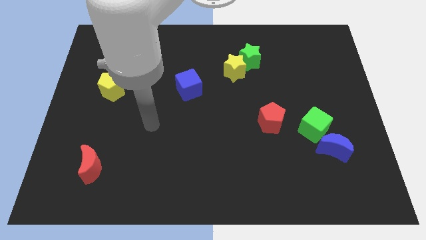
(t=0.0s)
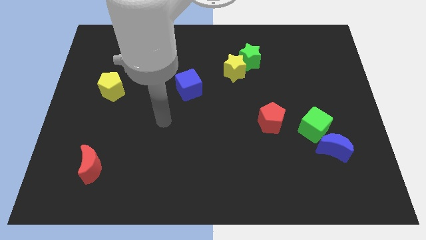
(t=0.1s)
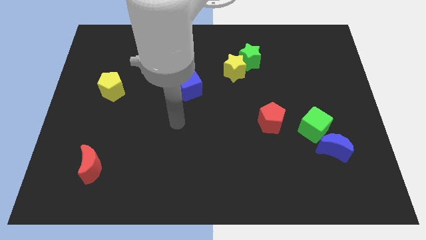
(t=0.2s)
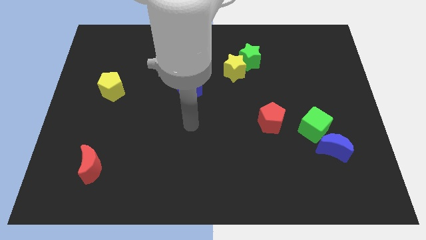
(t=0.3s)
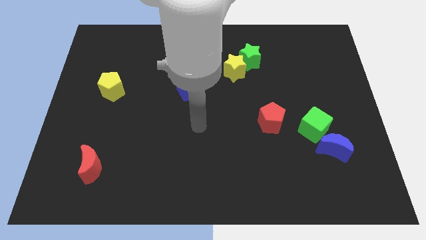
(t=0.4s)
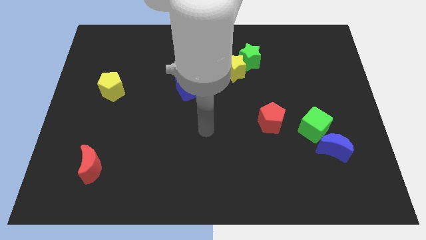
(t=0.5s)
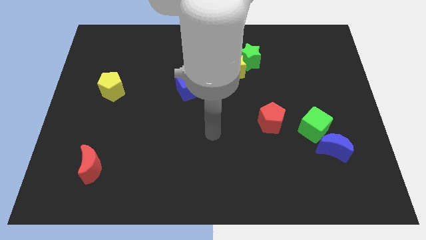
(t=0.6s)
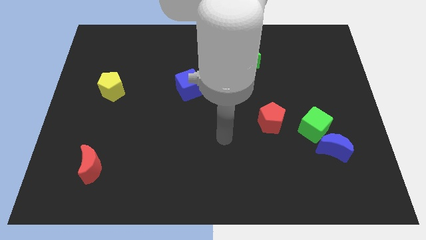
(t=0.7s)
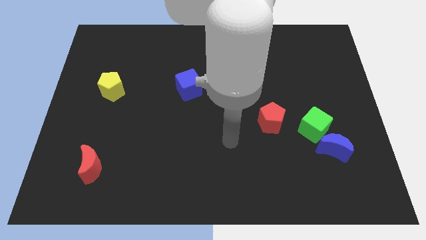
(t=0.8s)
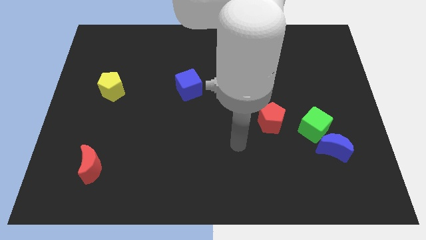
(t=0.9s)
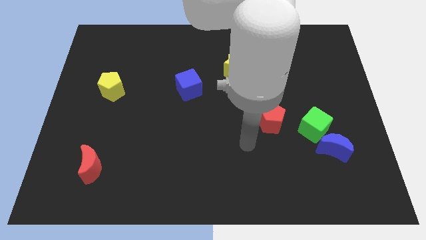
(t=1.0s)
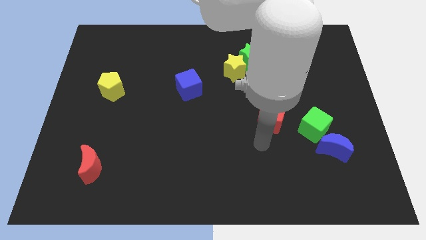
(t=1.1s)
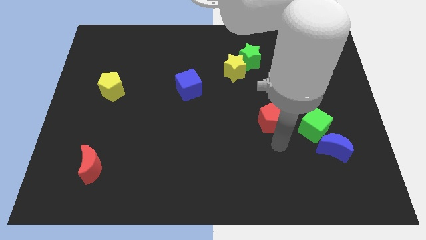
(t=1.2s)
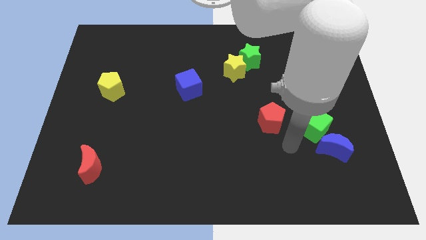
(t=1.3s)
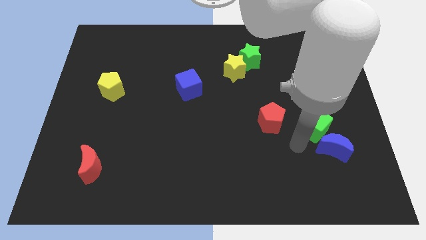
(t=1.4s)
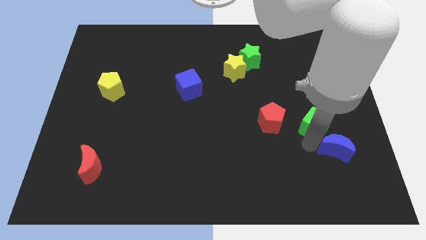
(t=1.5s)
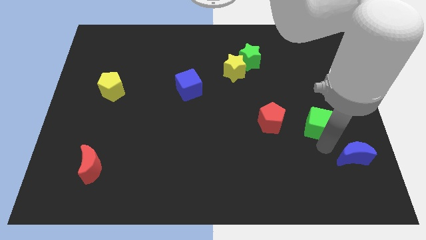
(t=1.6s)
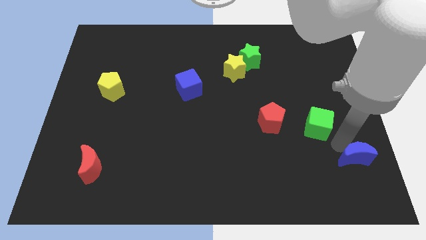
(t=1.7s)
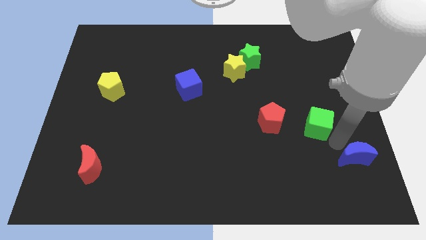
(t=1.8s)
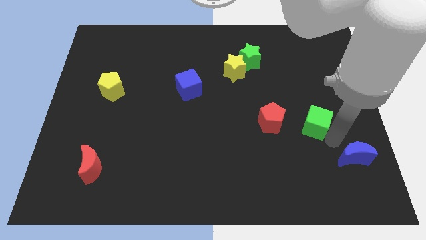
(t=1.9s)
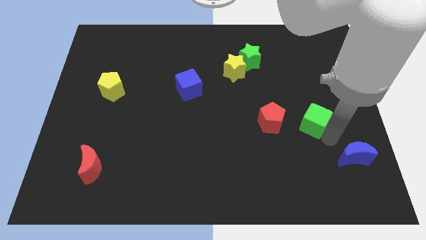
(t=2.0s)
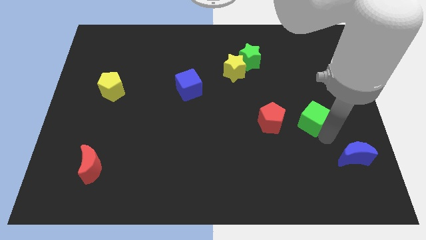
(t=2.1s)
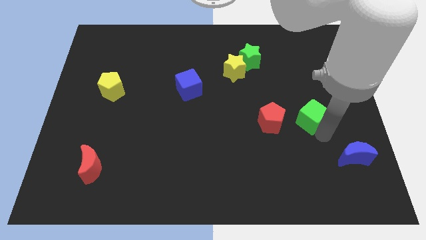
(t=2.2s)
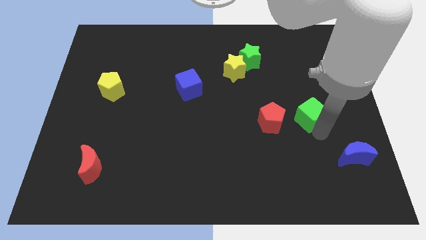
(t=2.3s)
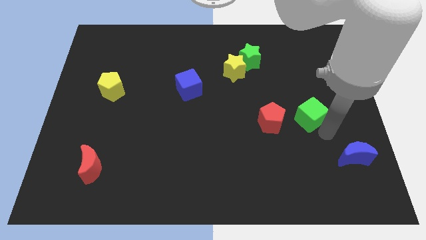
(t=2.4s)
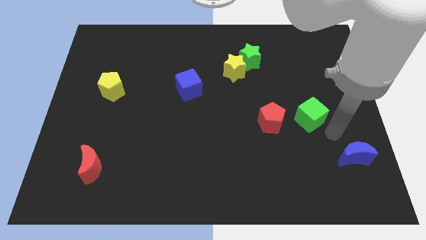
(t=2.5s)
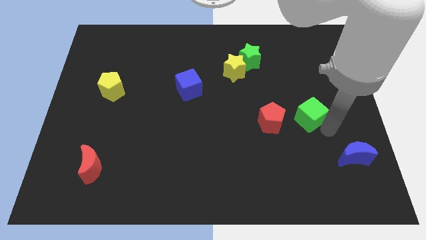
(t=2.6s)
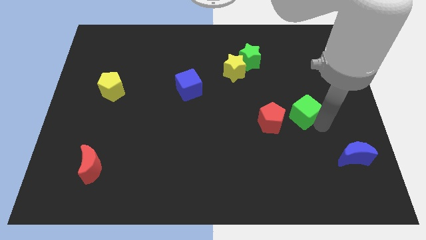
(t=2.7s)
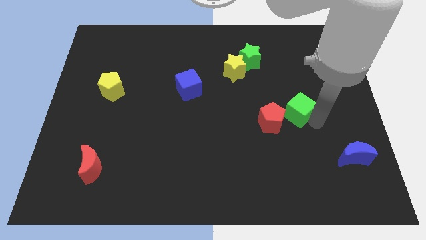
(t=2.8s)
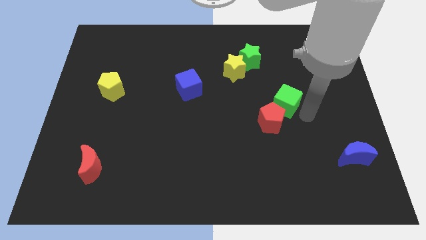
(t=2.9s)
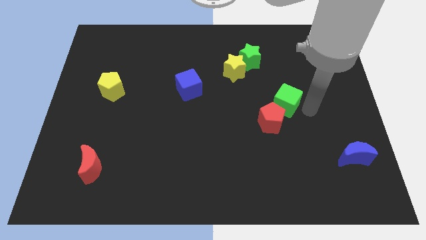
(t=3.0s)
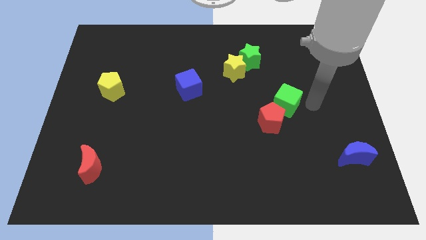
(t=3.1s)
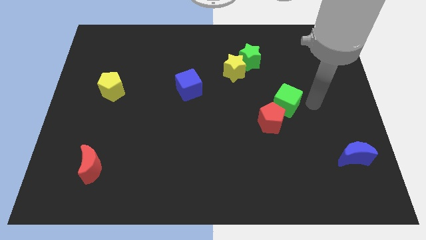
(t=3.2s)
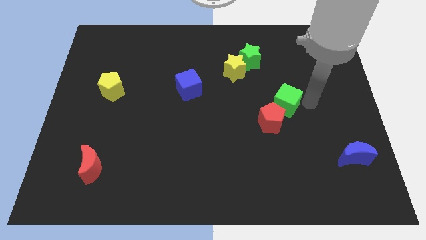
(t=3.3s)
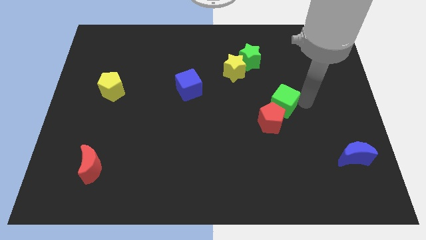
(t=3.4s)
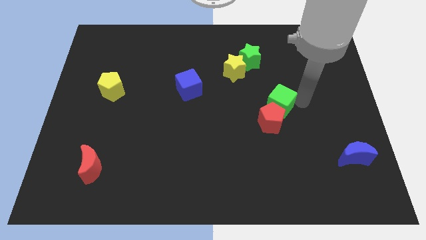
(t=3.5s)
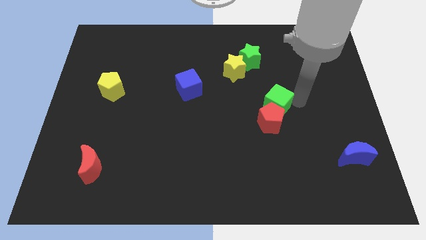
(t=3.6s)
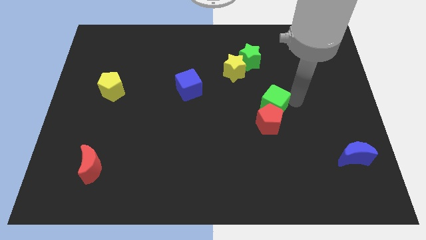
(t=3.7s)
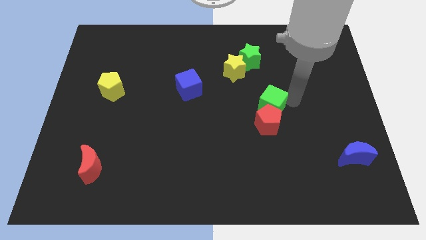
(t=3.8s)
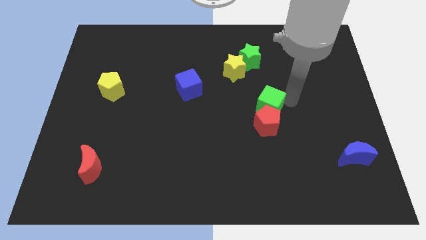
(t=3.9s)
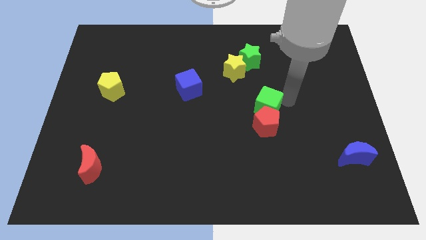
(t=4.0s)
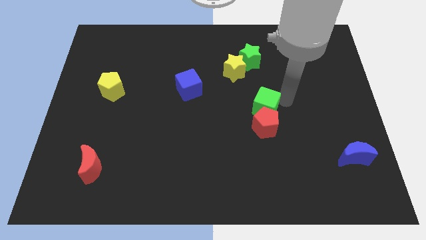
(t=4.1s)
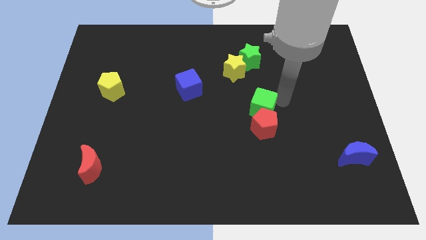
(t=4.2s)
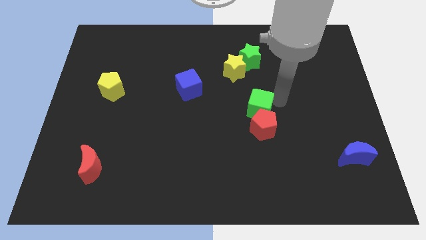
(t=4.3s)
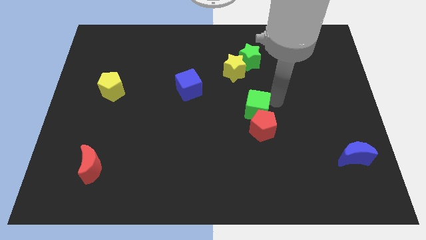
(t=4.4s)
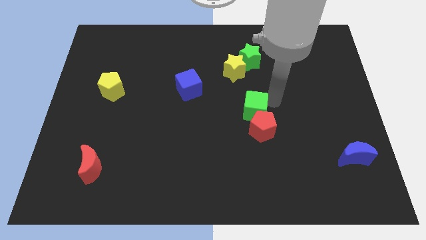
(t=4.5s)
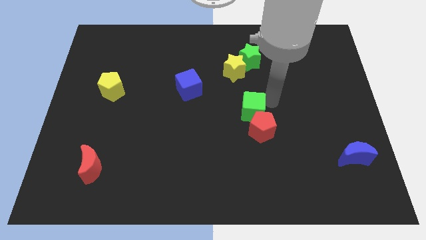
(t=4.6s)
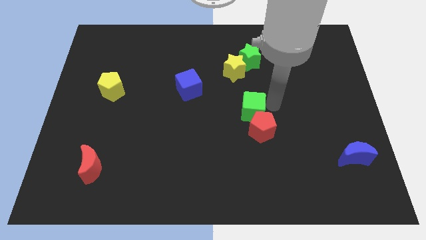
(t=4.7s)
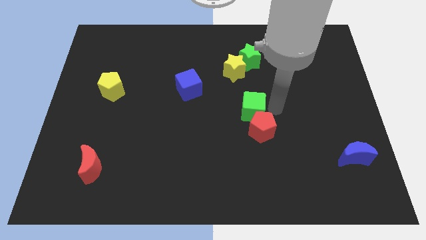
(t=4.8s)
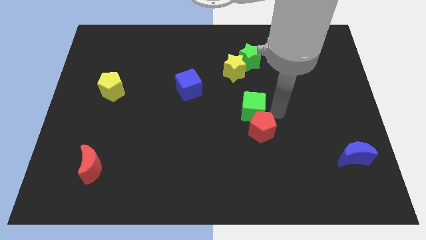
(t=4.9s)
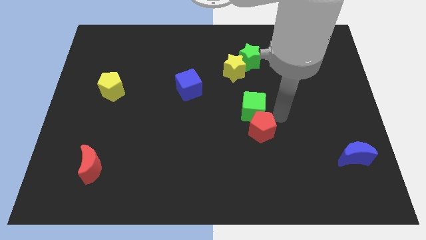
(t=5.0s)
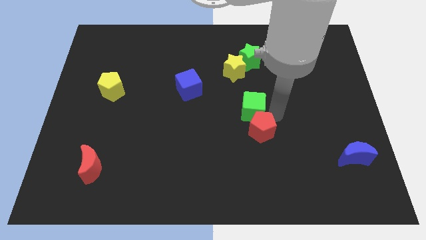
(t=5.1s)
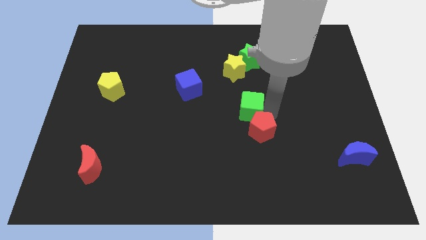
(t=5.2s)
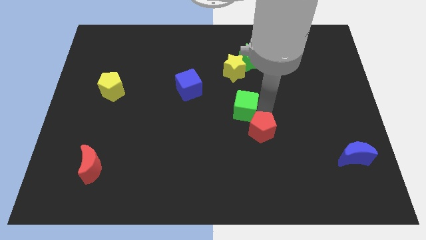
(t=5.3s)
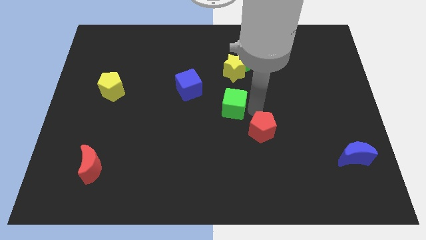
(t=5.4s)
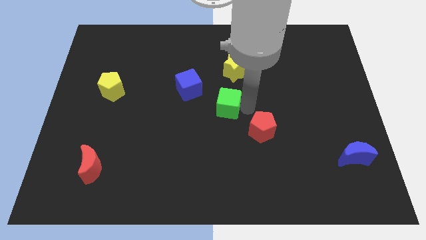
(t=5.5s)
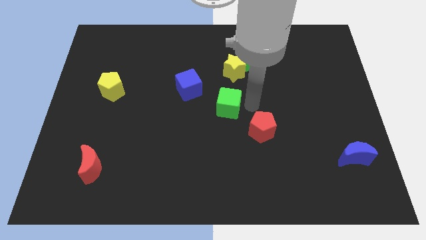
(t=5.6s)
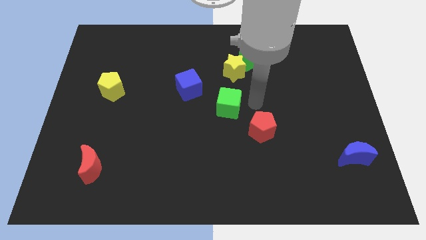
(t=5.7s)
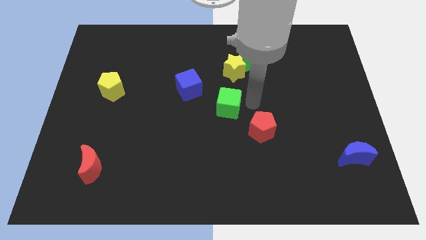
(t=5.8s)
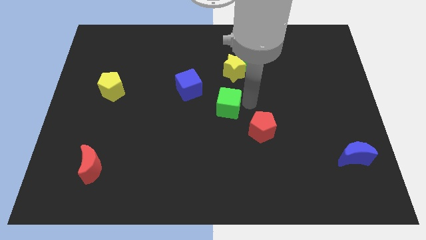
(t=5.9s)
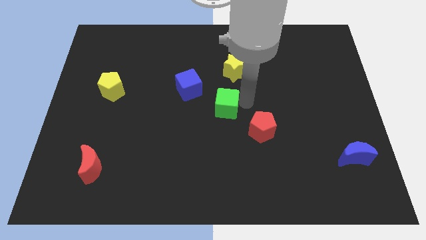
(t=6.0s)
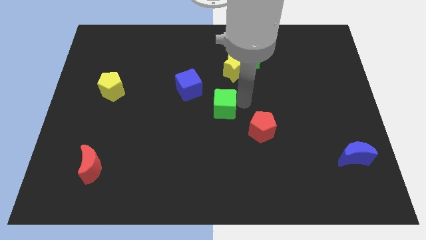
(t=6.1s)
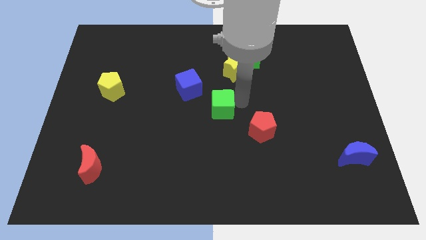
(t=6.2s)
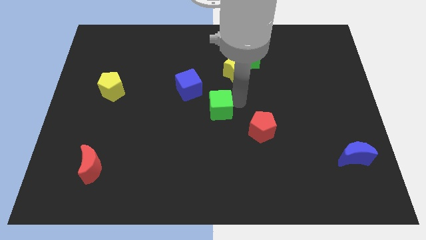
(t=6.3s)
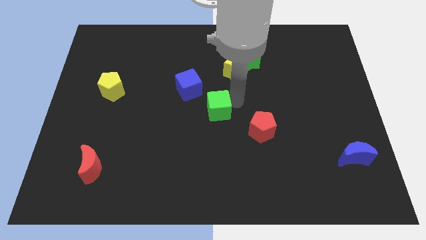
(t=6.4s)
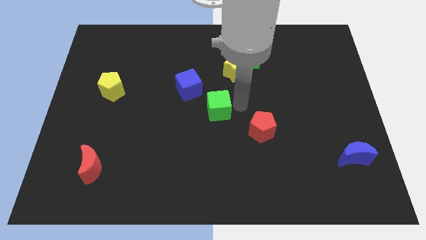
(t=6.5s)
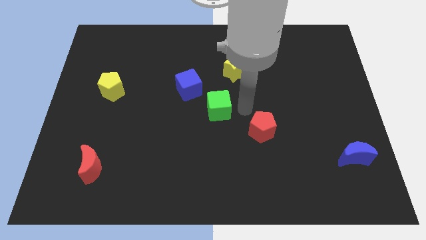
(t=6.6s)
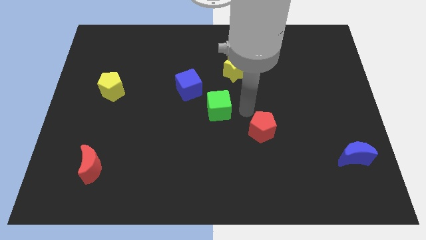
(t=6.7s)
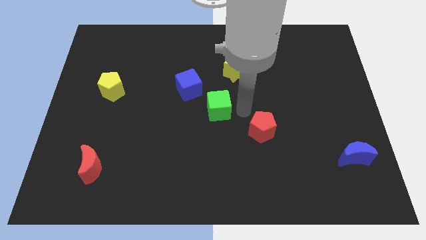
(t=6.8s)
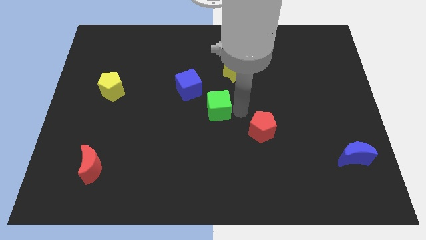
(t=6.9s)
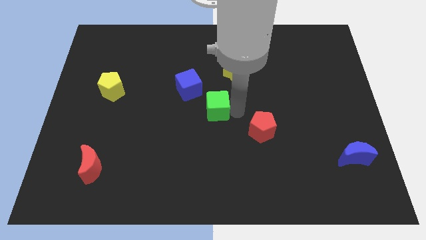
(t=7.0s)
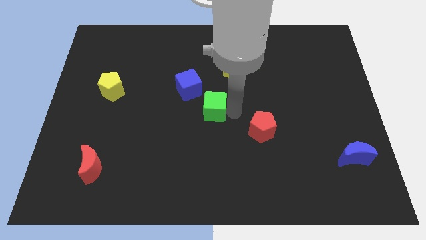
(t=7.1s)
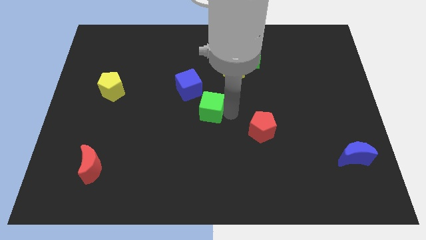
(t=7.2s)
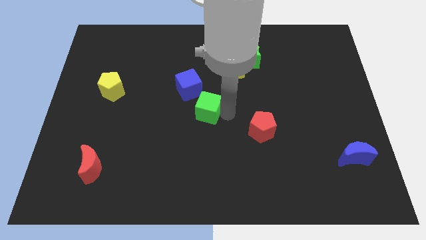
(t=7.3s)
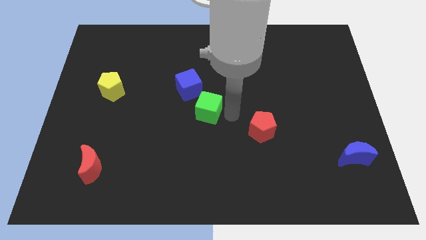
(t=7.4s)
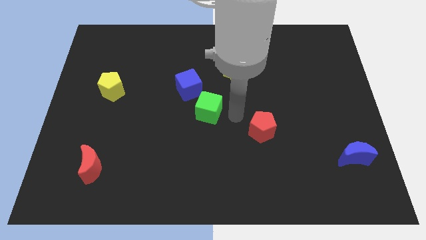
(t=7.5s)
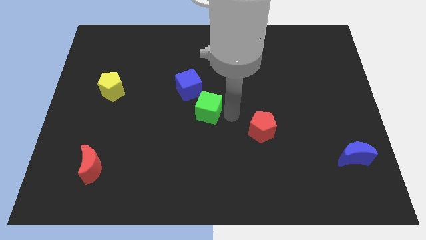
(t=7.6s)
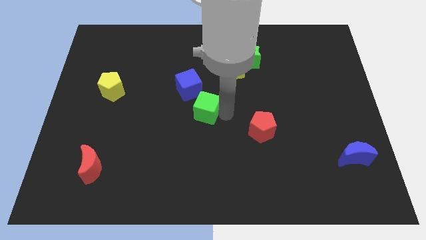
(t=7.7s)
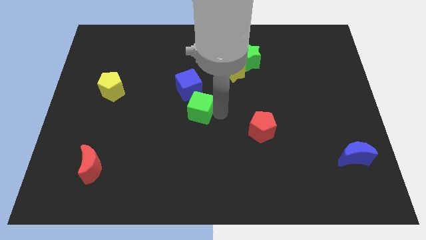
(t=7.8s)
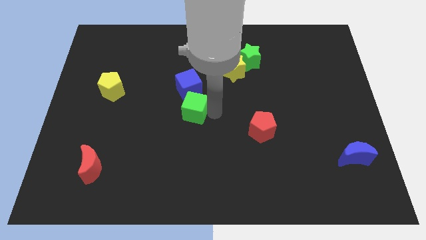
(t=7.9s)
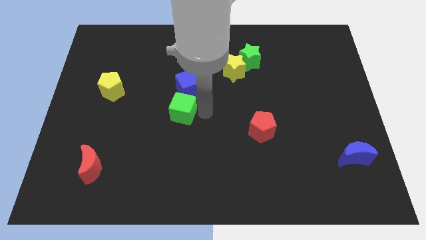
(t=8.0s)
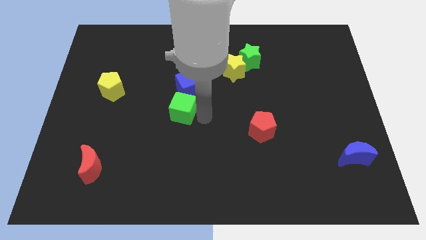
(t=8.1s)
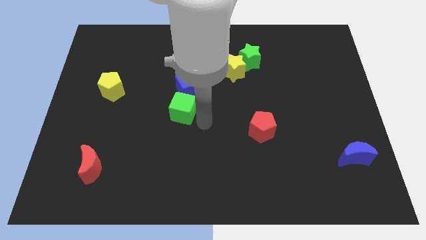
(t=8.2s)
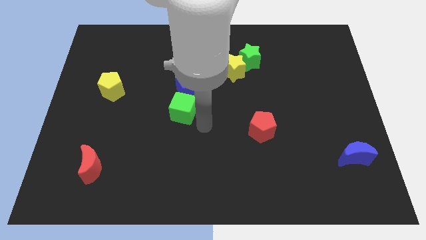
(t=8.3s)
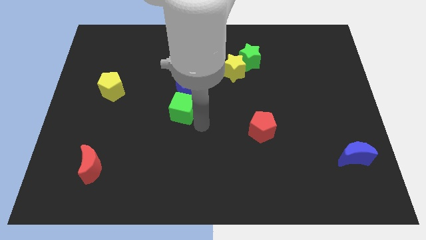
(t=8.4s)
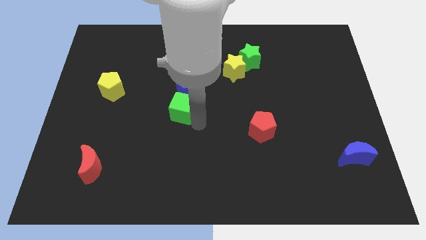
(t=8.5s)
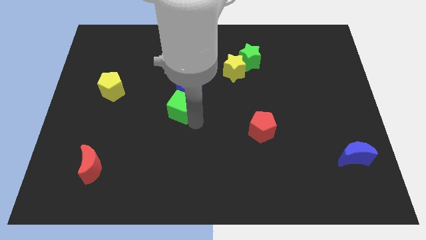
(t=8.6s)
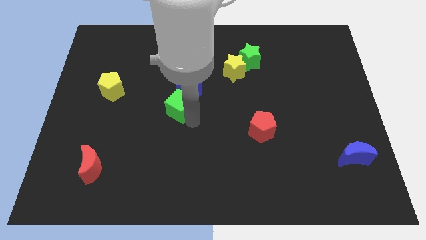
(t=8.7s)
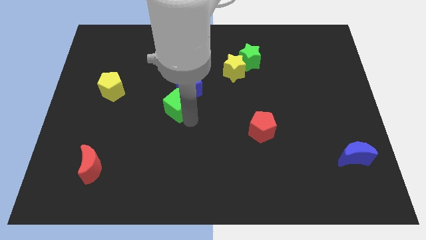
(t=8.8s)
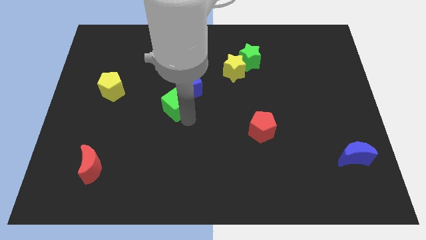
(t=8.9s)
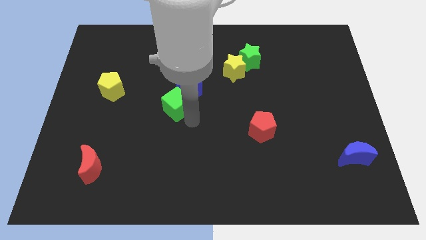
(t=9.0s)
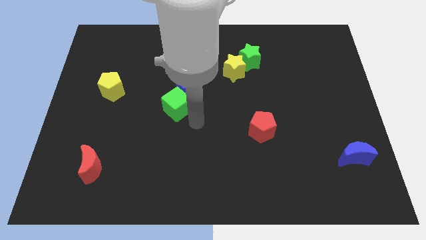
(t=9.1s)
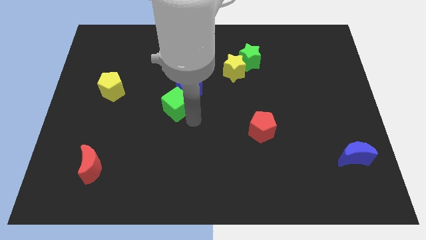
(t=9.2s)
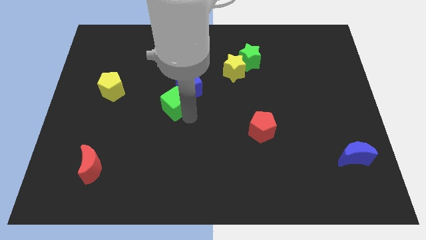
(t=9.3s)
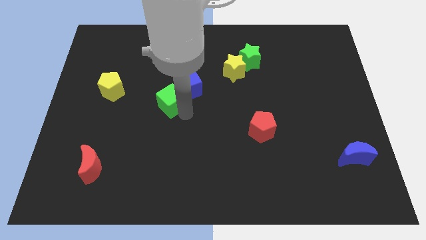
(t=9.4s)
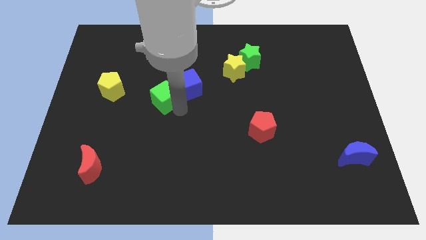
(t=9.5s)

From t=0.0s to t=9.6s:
push the green cube to the right of the yellow pentagon
